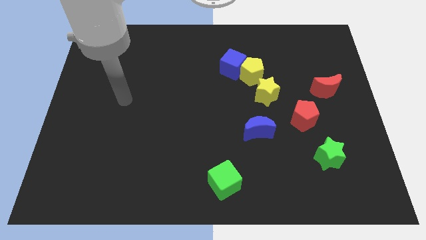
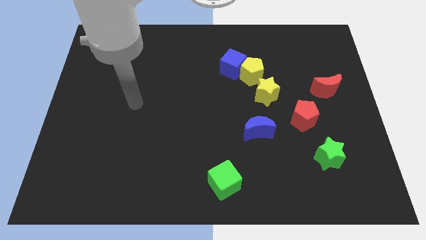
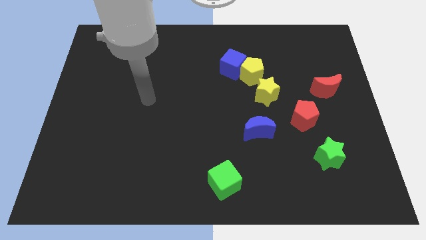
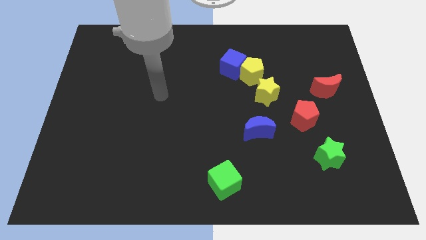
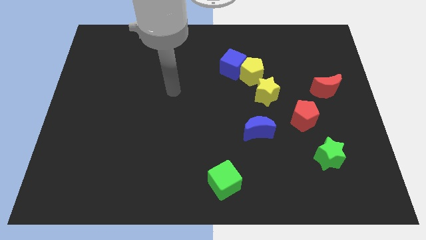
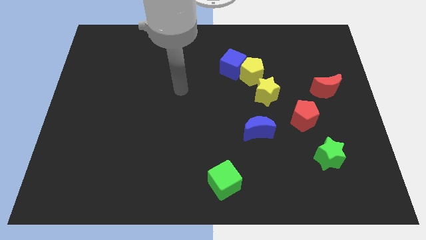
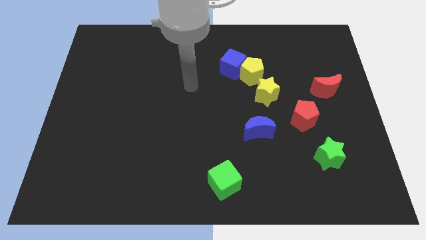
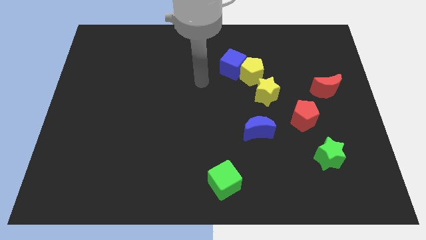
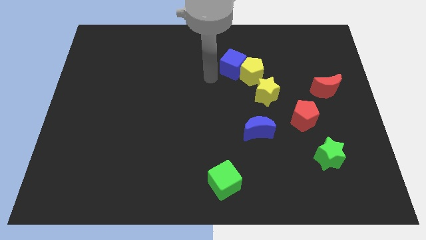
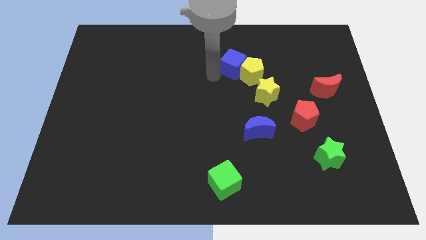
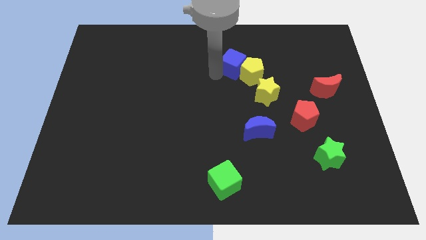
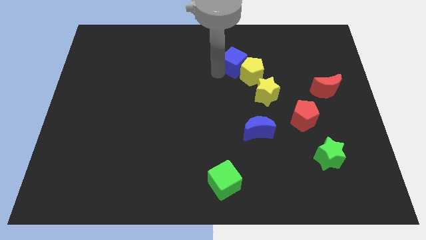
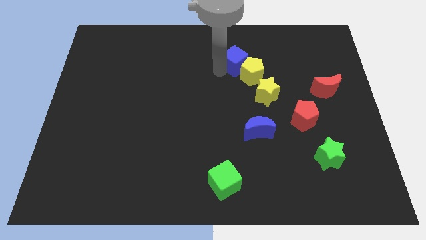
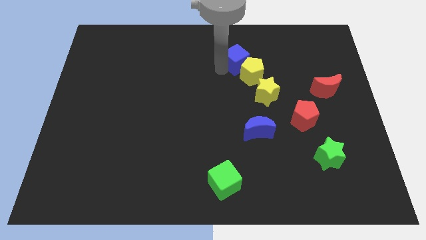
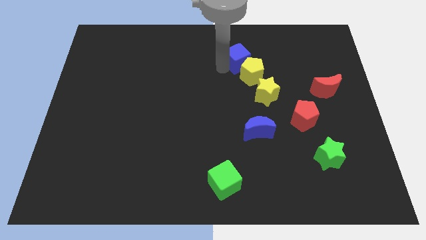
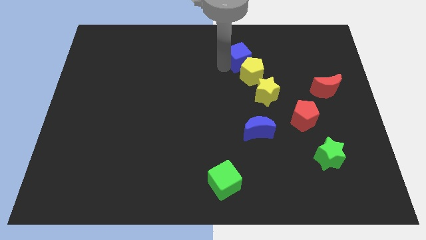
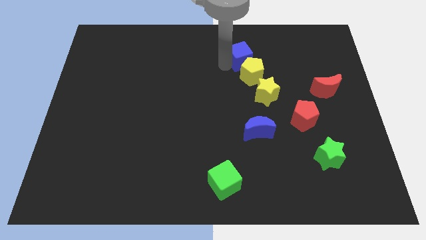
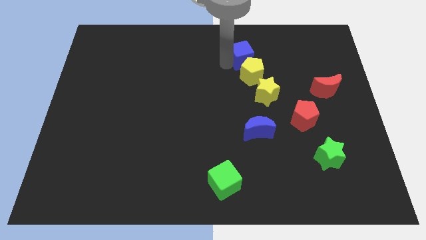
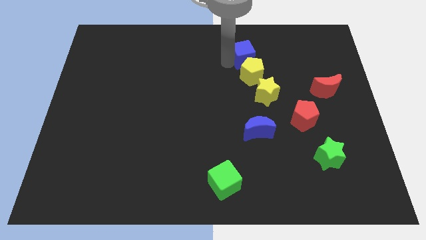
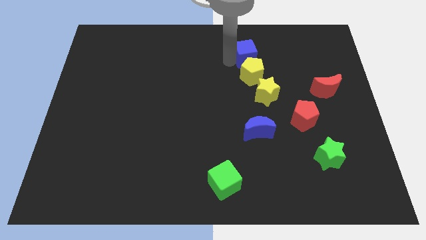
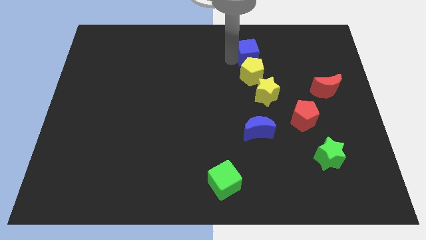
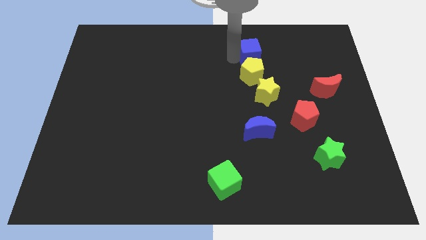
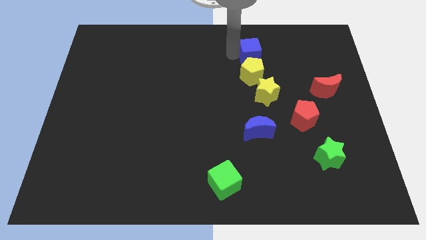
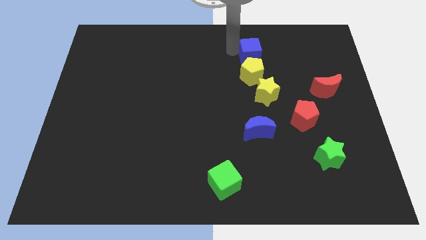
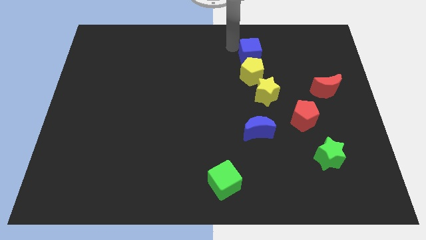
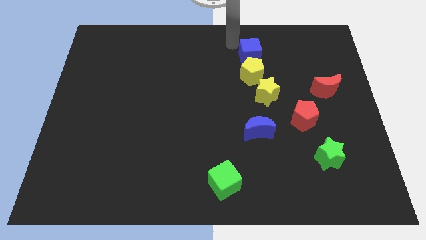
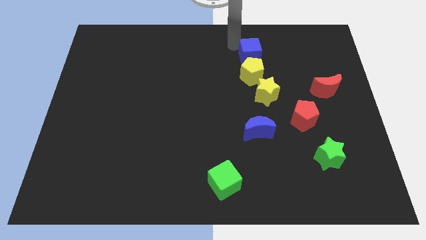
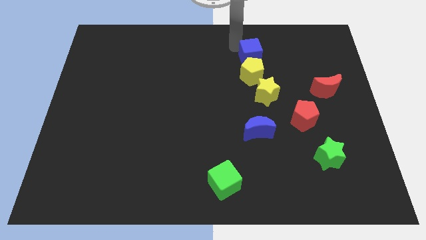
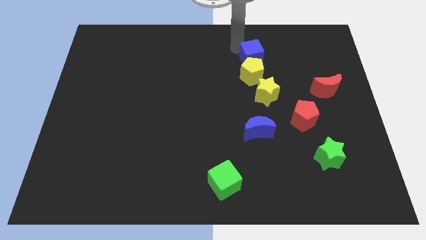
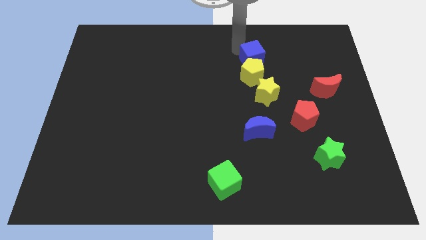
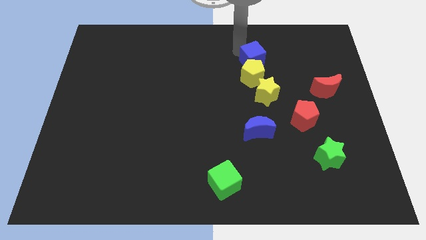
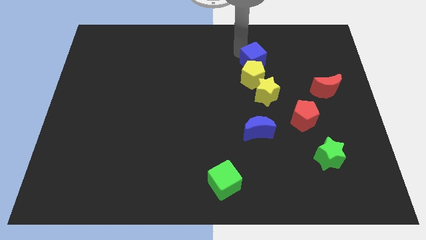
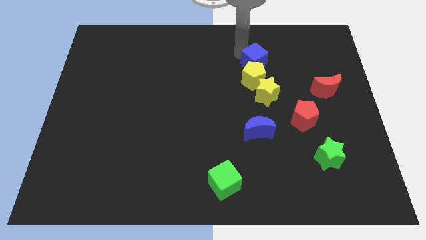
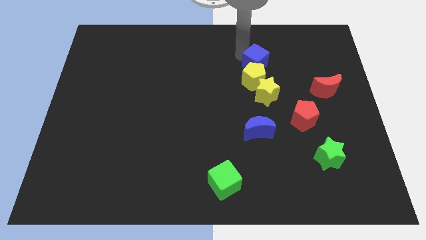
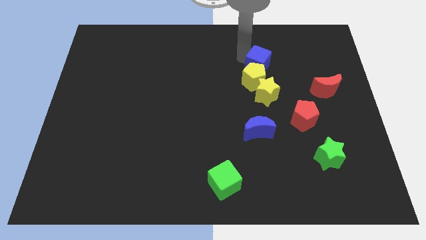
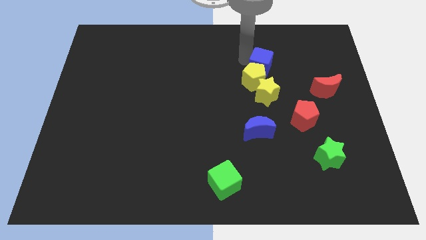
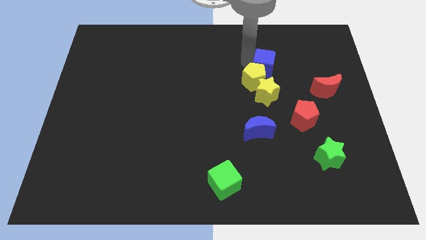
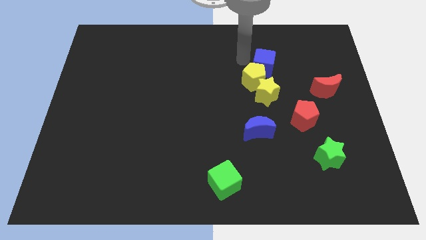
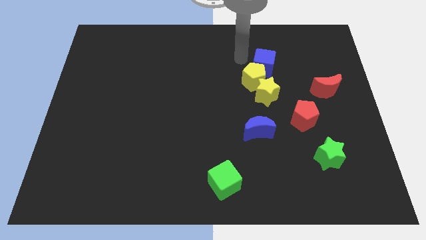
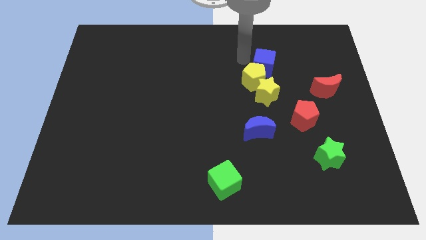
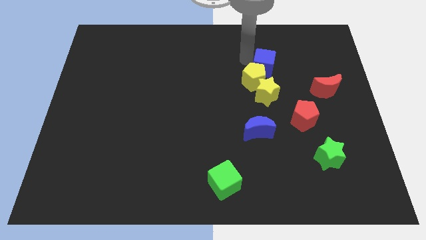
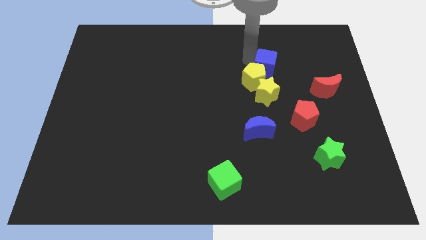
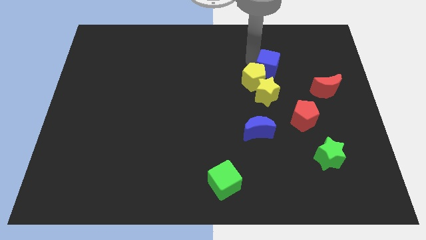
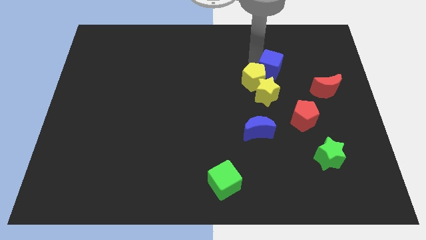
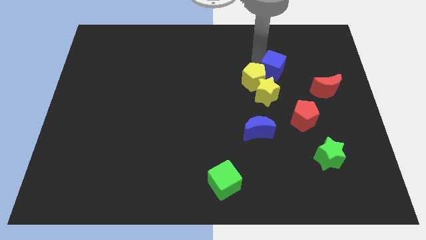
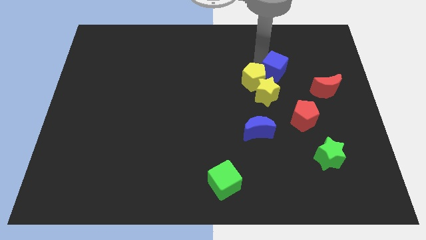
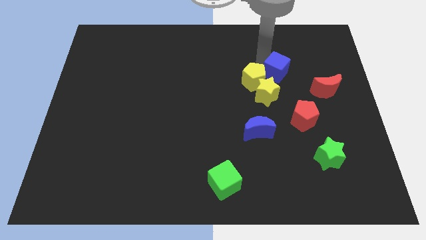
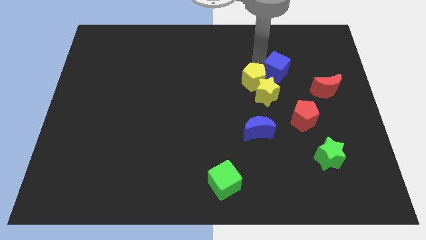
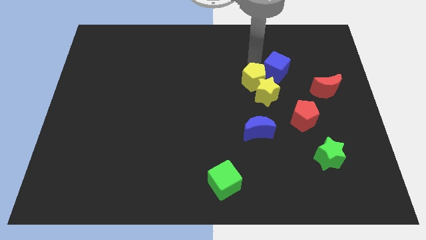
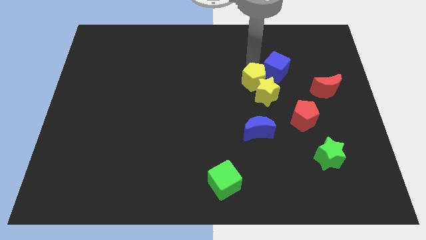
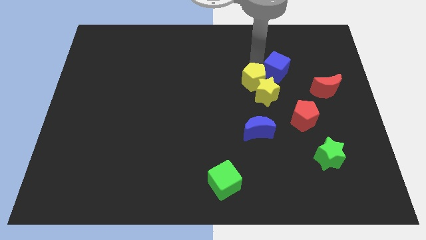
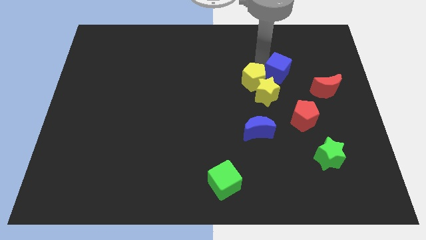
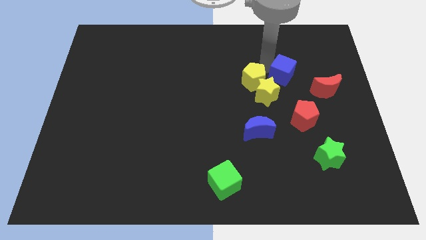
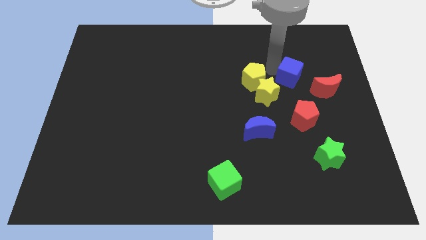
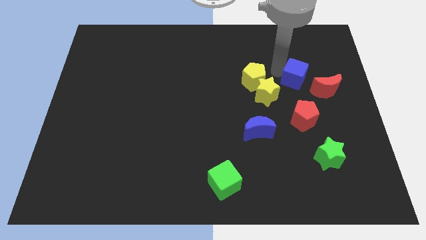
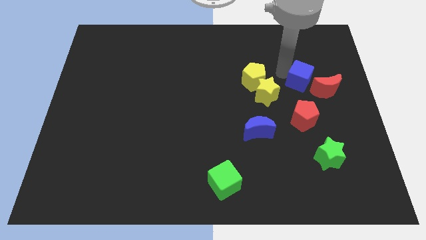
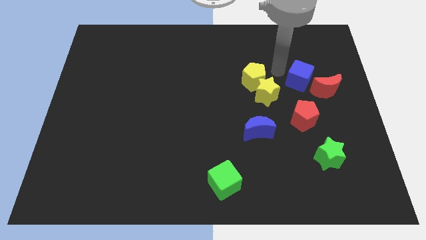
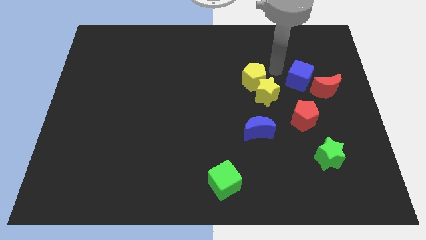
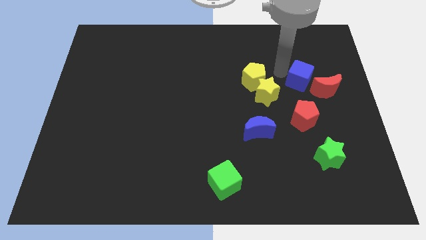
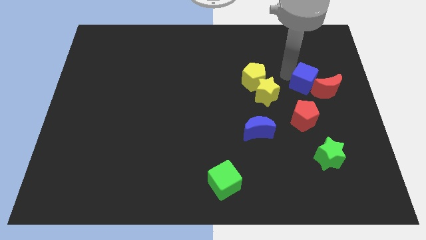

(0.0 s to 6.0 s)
put the blue cube towards the red moon
